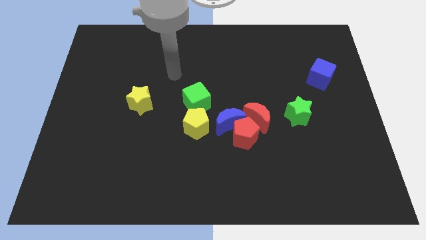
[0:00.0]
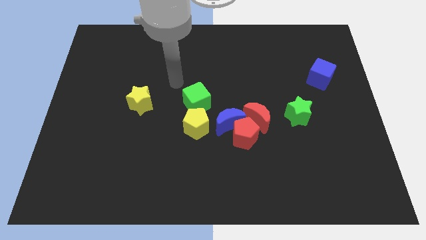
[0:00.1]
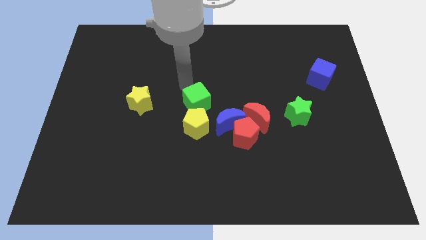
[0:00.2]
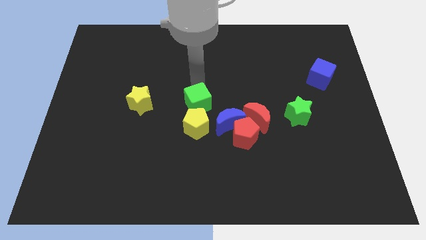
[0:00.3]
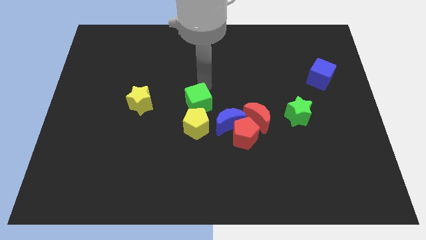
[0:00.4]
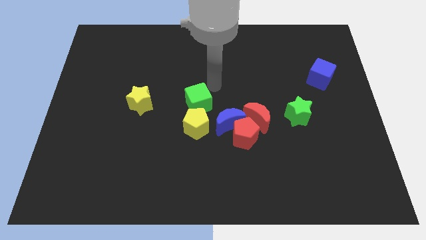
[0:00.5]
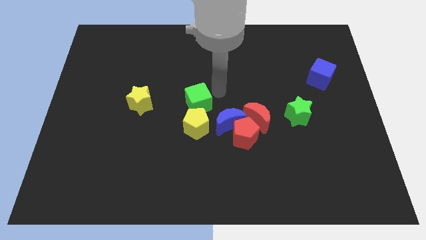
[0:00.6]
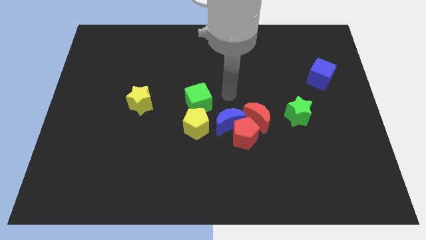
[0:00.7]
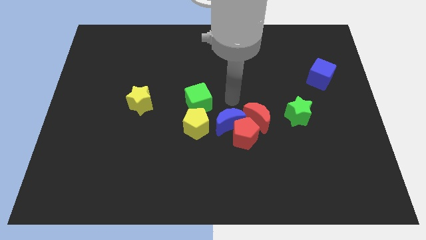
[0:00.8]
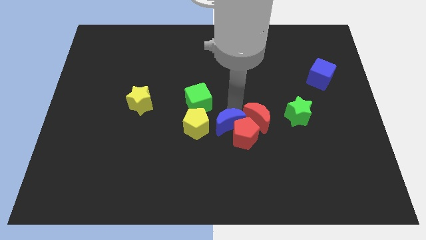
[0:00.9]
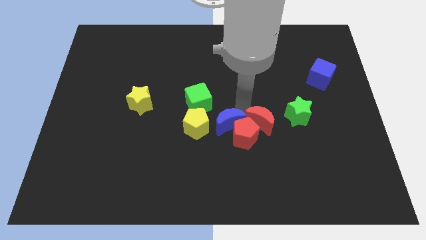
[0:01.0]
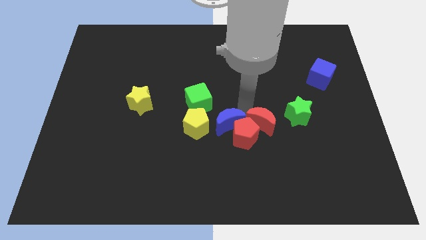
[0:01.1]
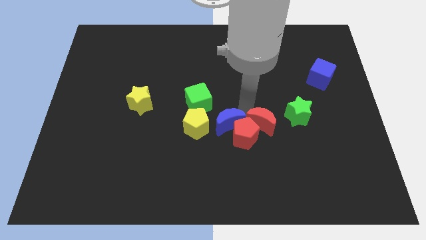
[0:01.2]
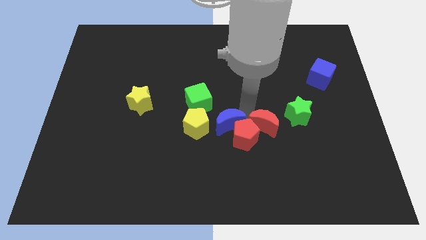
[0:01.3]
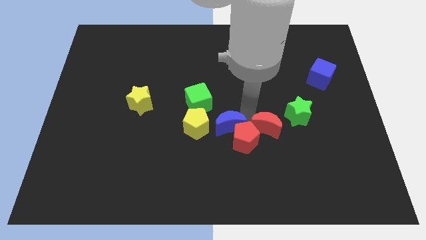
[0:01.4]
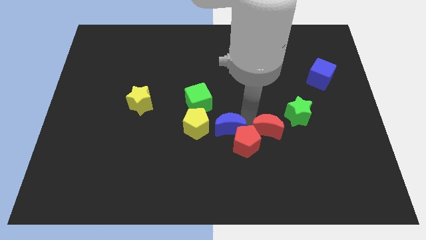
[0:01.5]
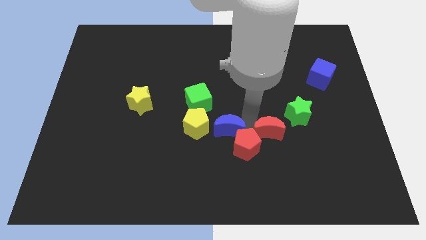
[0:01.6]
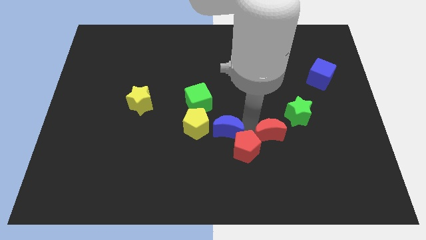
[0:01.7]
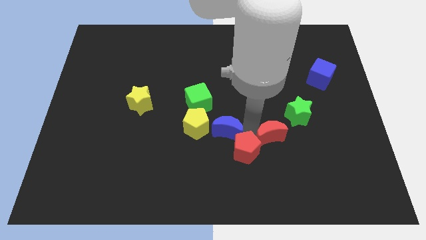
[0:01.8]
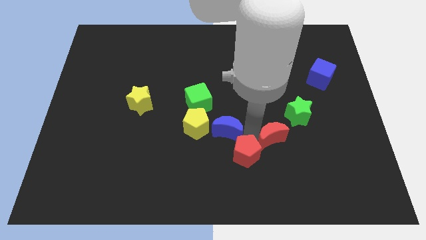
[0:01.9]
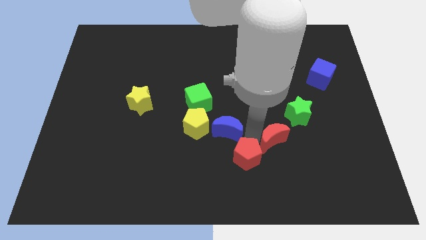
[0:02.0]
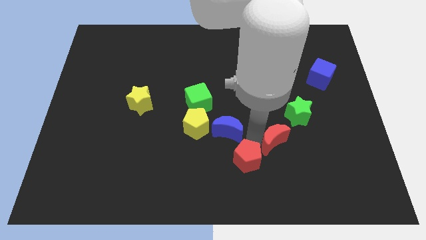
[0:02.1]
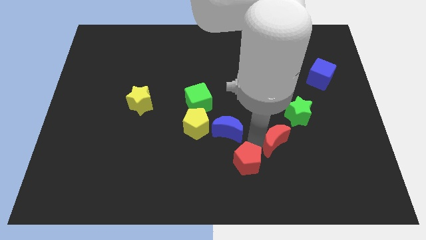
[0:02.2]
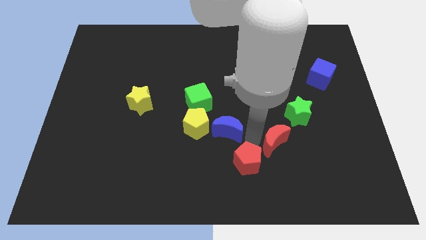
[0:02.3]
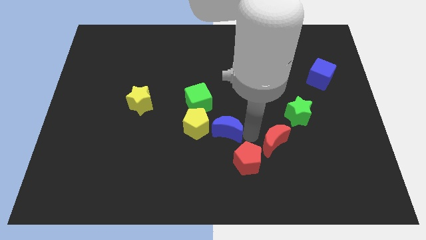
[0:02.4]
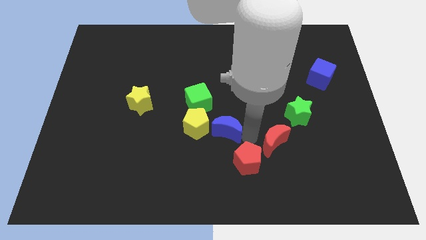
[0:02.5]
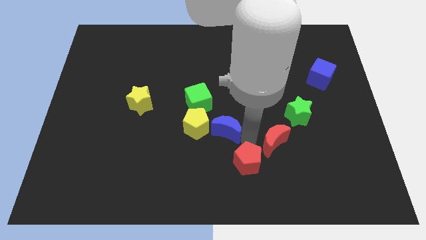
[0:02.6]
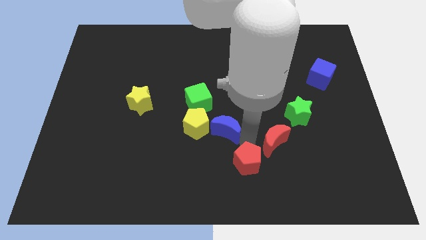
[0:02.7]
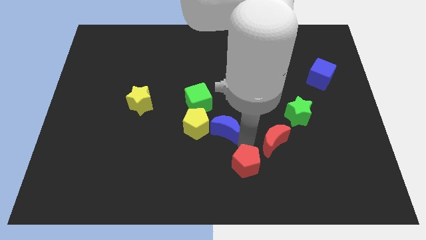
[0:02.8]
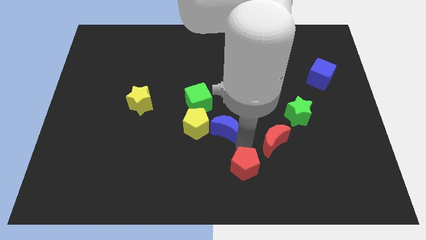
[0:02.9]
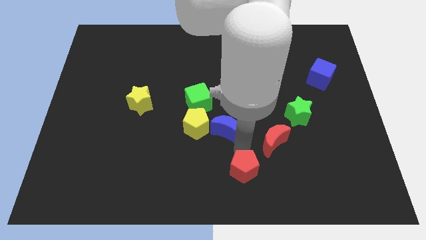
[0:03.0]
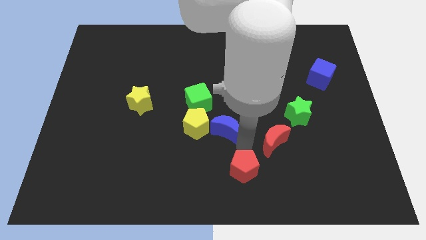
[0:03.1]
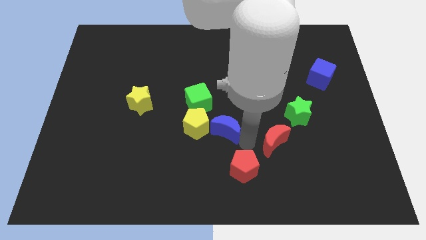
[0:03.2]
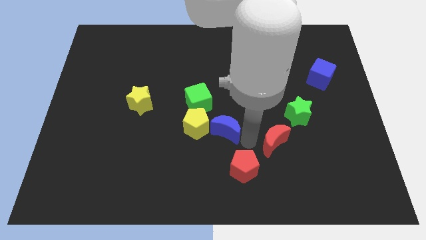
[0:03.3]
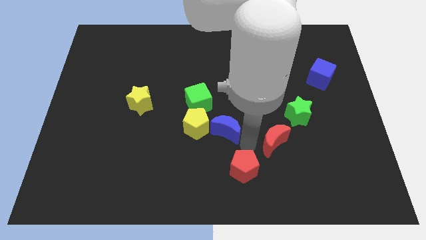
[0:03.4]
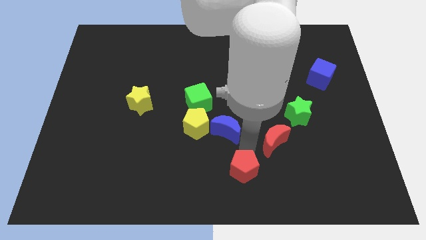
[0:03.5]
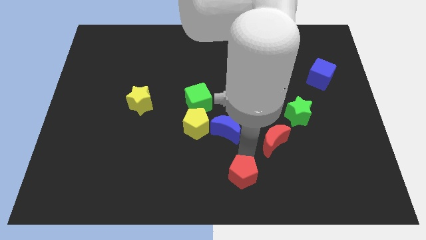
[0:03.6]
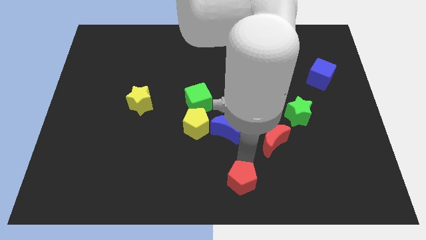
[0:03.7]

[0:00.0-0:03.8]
separate the red pentagon from the blue moon and red moon

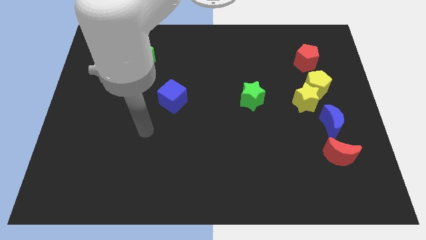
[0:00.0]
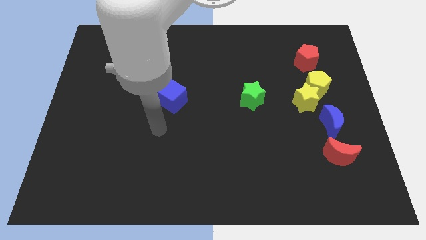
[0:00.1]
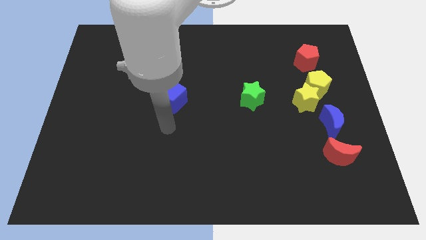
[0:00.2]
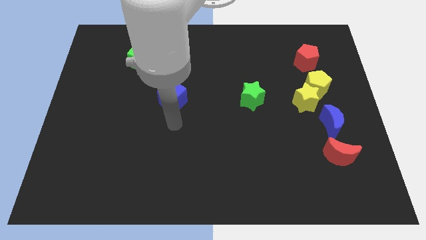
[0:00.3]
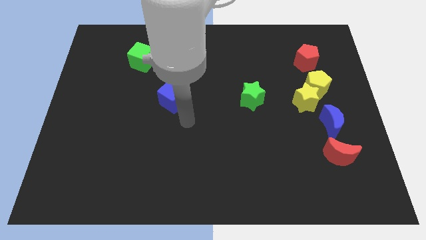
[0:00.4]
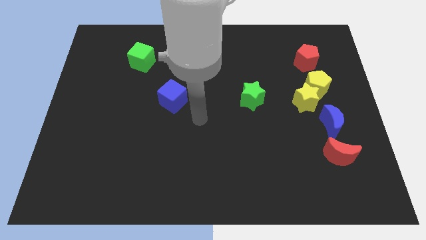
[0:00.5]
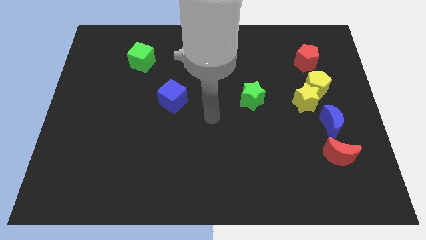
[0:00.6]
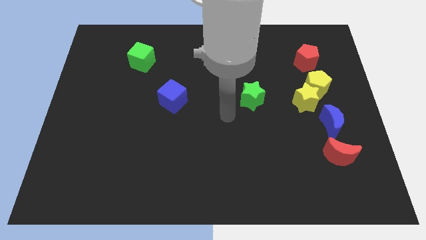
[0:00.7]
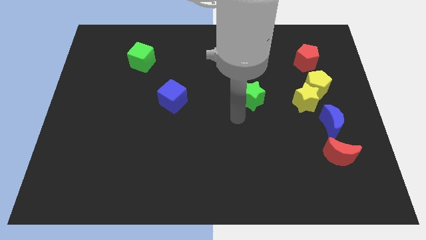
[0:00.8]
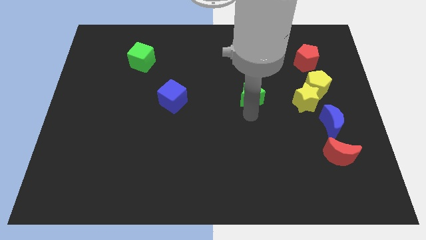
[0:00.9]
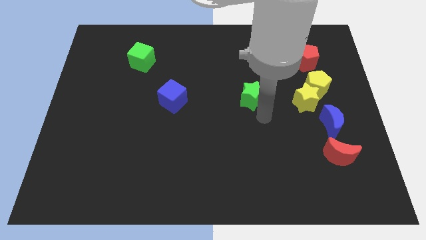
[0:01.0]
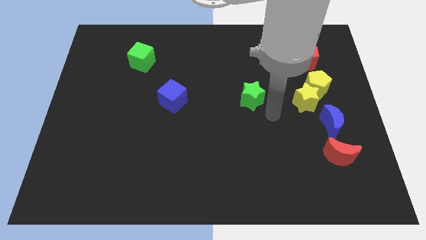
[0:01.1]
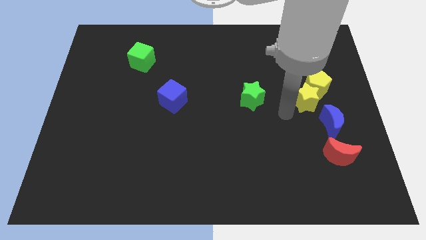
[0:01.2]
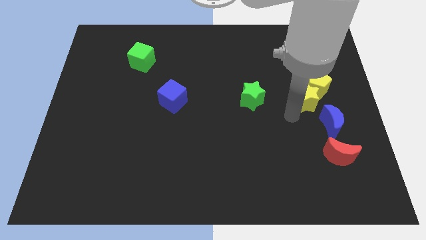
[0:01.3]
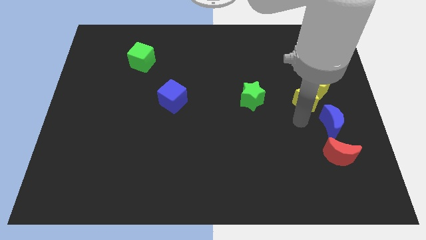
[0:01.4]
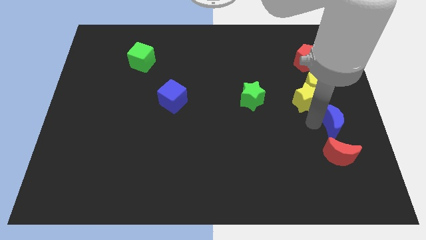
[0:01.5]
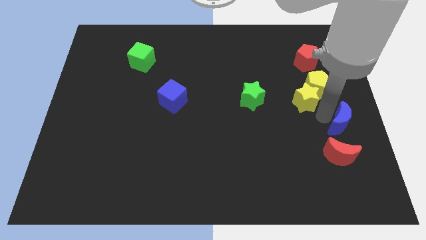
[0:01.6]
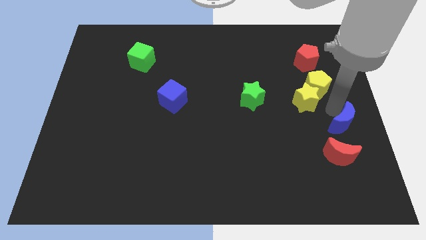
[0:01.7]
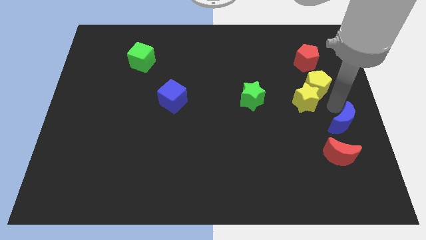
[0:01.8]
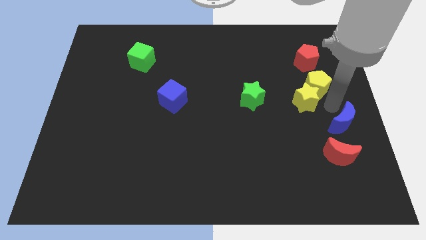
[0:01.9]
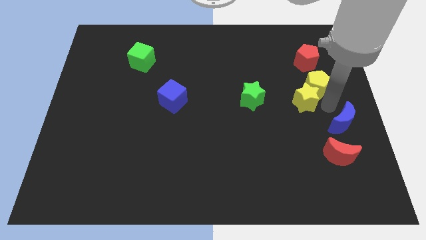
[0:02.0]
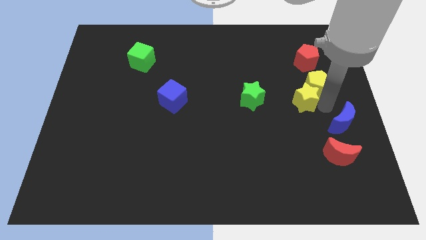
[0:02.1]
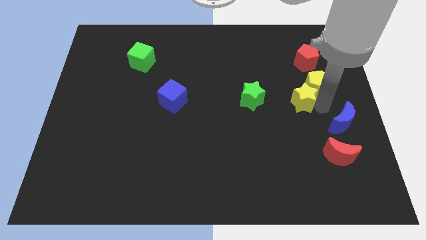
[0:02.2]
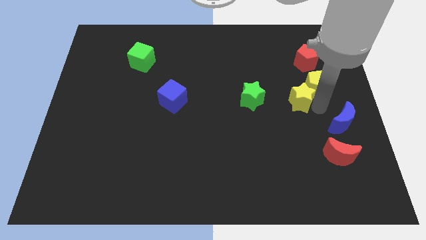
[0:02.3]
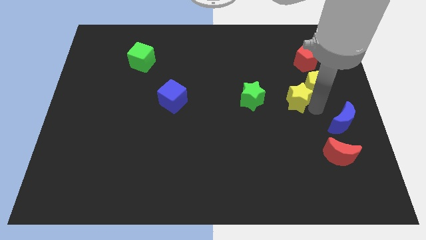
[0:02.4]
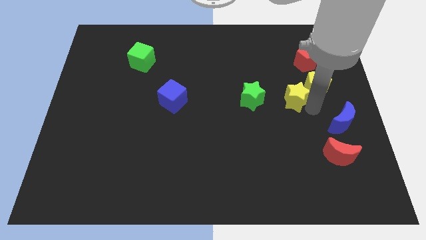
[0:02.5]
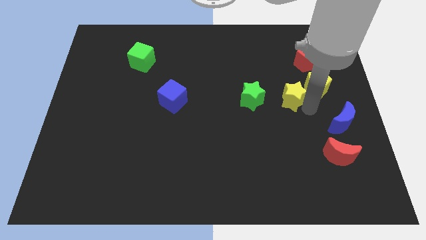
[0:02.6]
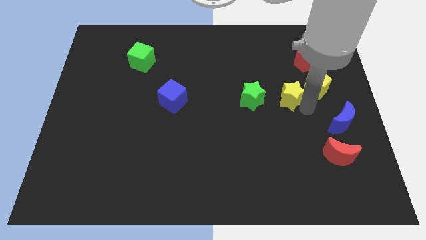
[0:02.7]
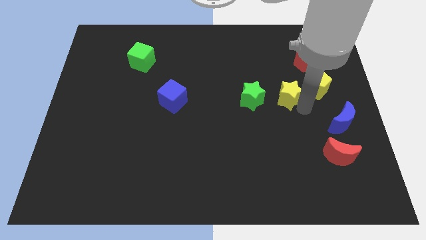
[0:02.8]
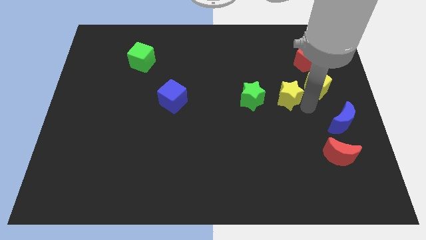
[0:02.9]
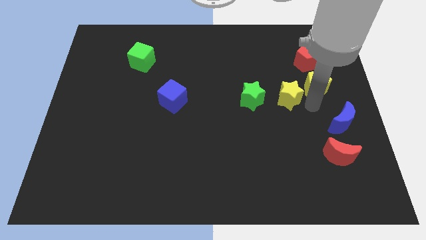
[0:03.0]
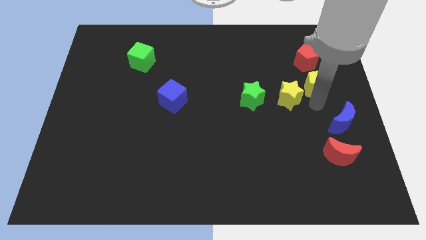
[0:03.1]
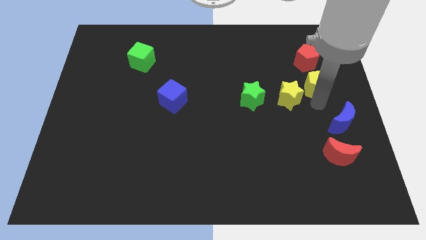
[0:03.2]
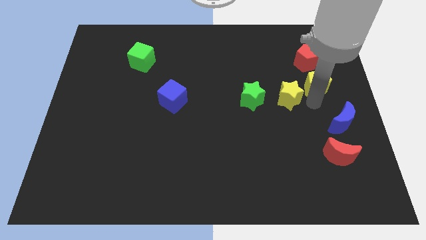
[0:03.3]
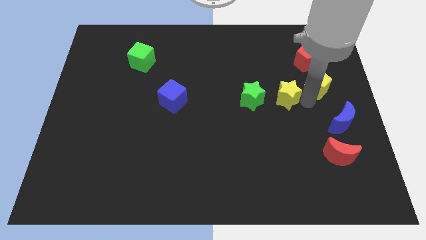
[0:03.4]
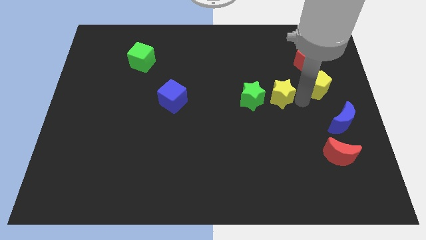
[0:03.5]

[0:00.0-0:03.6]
move the yellow star away from the yellow pentagon and blue moon

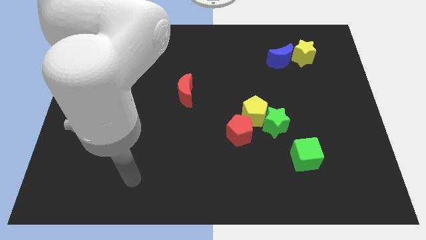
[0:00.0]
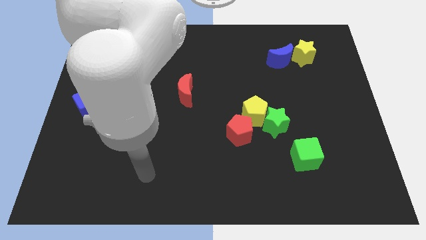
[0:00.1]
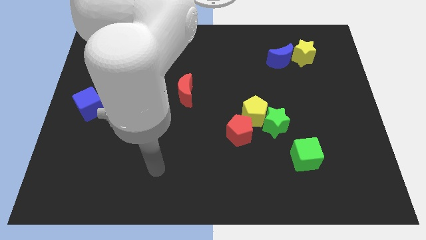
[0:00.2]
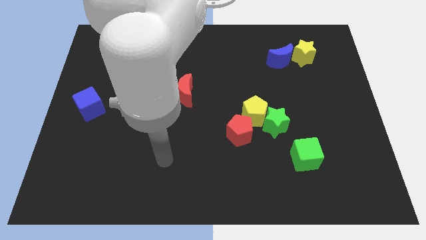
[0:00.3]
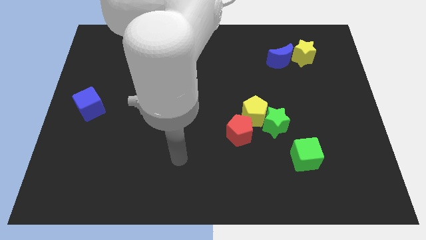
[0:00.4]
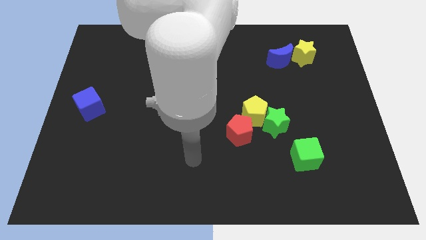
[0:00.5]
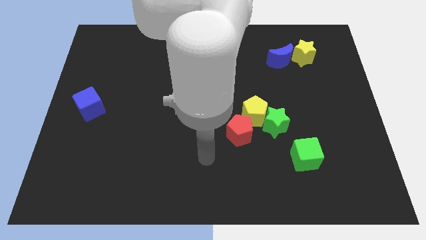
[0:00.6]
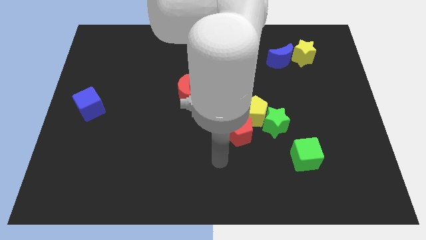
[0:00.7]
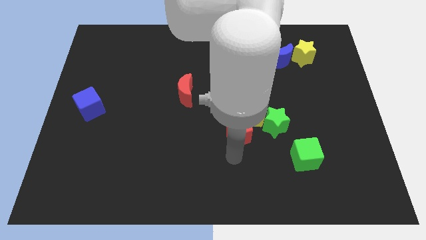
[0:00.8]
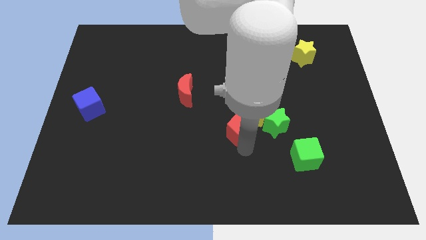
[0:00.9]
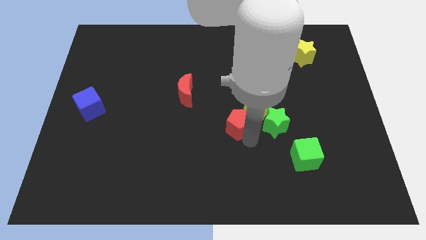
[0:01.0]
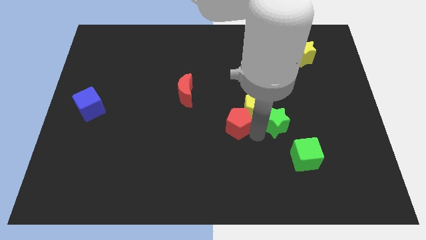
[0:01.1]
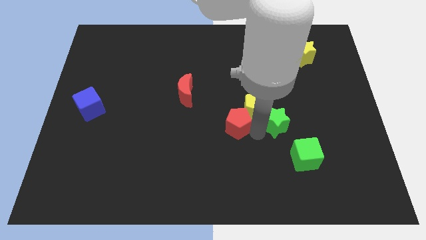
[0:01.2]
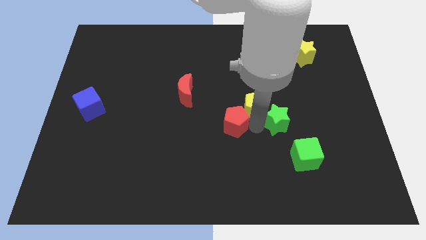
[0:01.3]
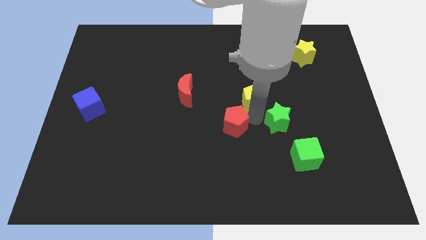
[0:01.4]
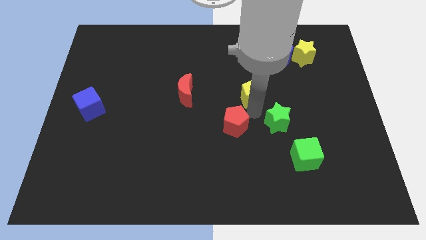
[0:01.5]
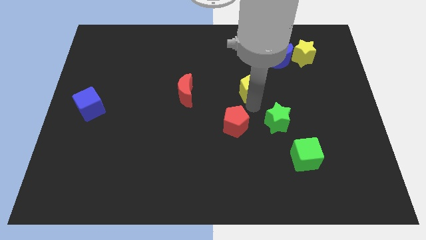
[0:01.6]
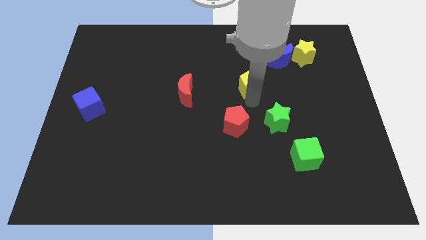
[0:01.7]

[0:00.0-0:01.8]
move the yellow pentagon away from the green star and red pentagon

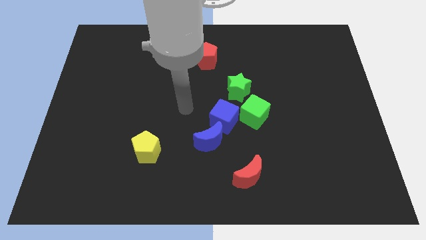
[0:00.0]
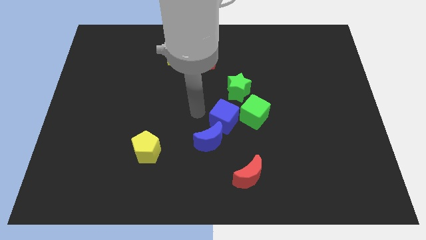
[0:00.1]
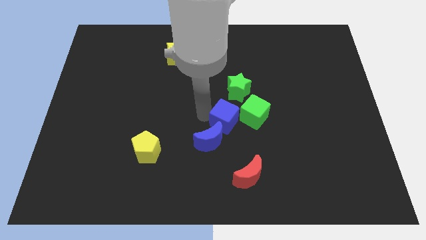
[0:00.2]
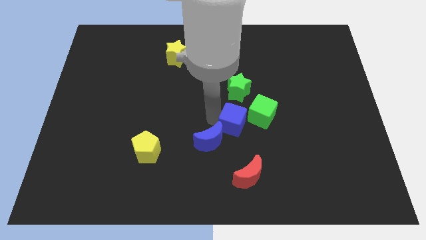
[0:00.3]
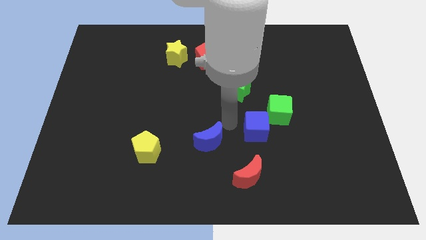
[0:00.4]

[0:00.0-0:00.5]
separate the blue moon from the blue cube
